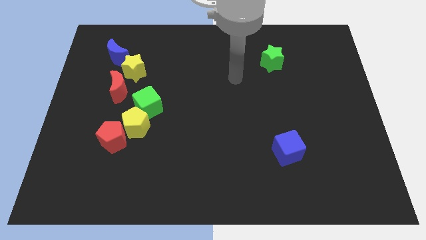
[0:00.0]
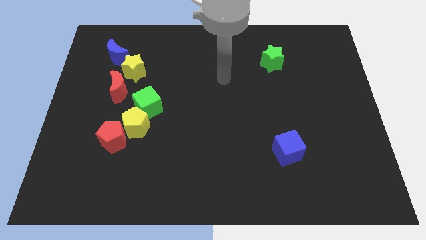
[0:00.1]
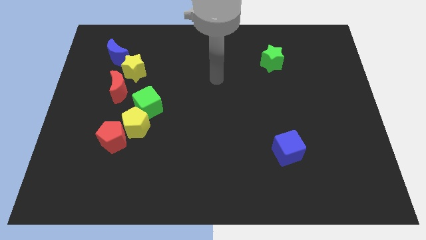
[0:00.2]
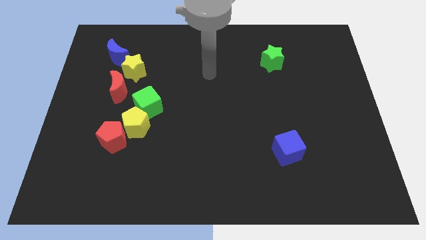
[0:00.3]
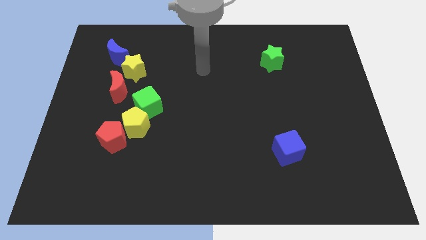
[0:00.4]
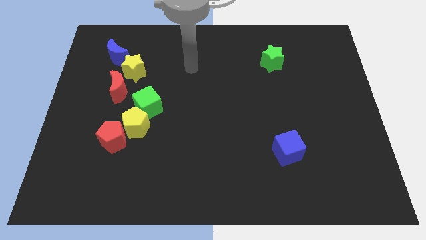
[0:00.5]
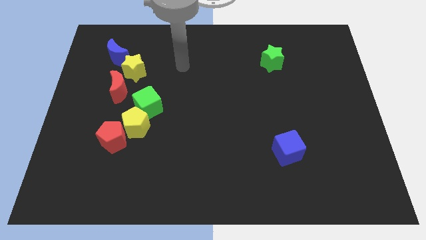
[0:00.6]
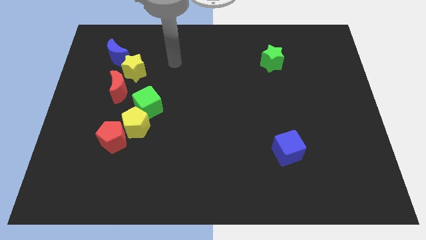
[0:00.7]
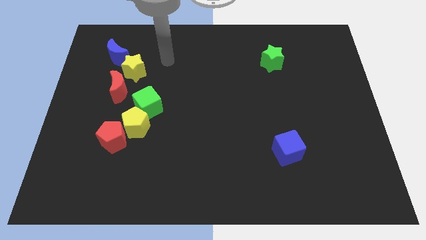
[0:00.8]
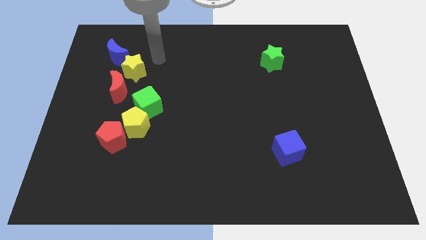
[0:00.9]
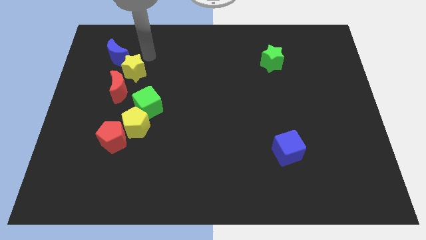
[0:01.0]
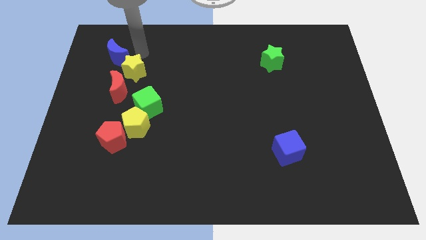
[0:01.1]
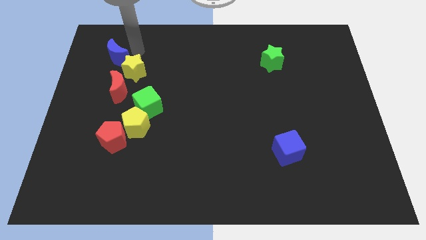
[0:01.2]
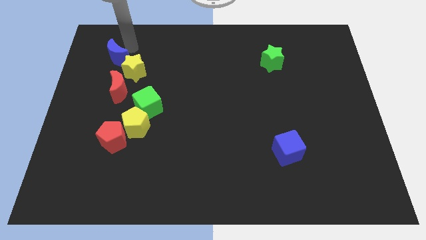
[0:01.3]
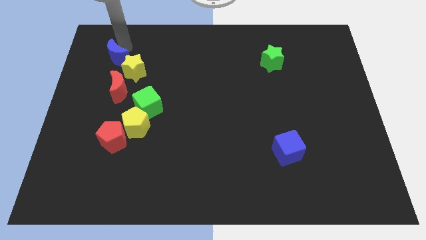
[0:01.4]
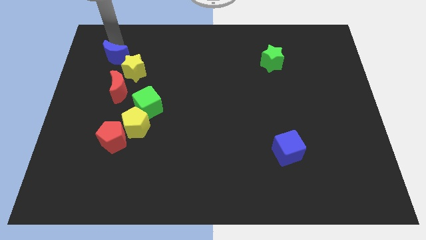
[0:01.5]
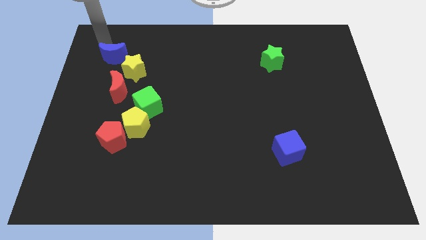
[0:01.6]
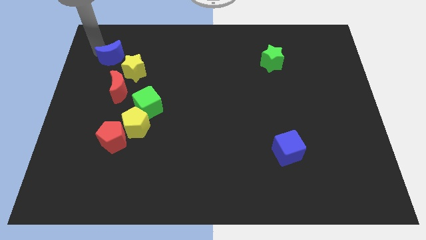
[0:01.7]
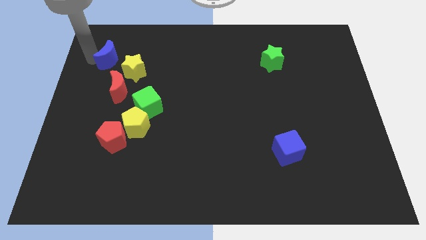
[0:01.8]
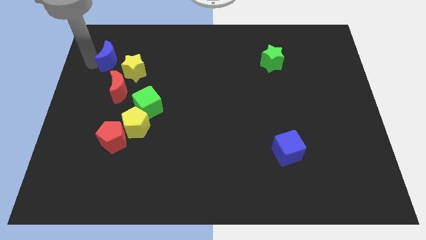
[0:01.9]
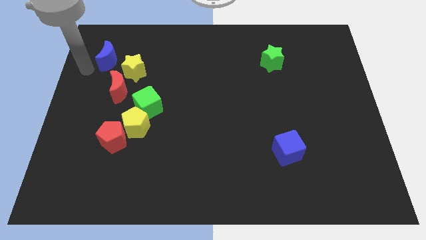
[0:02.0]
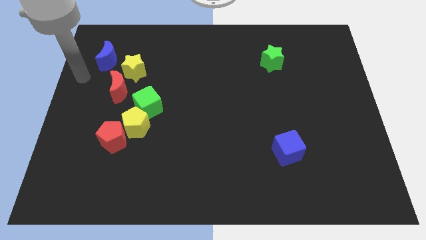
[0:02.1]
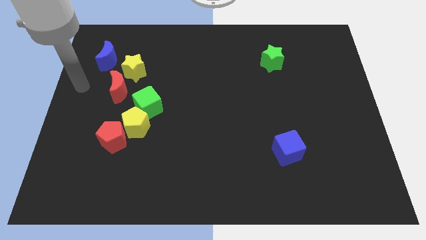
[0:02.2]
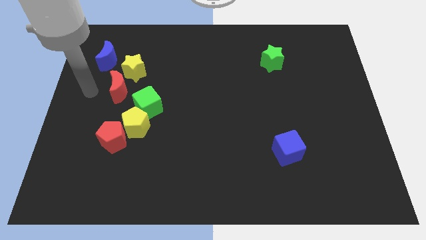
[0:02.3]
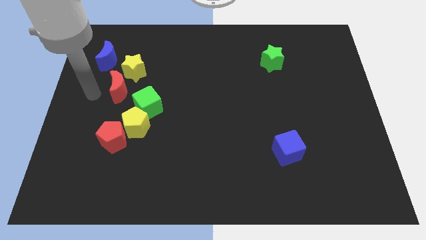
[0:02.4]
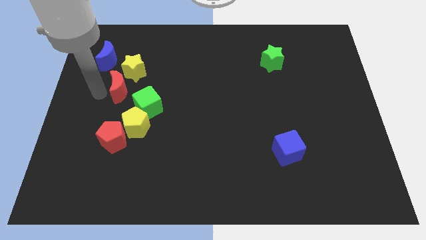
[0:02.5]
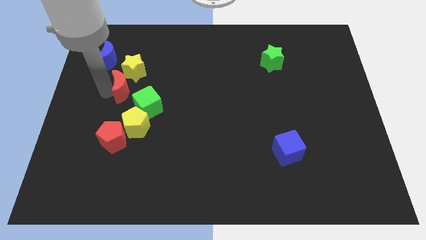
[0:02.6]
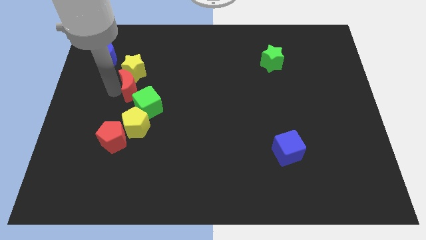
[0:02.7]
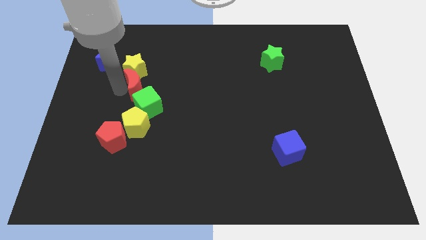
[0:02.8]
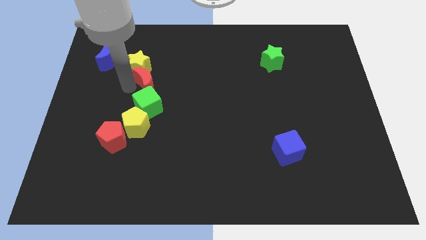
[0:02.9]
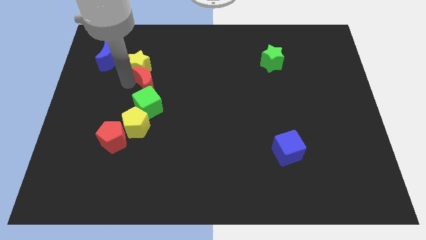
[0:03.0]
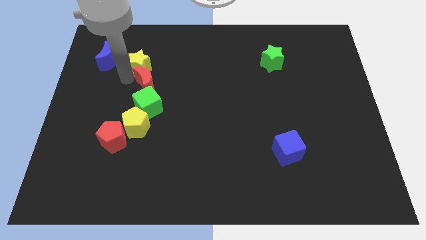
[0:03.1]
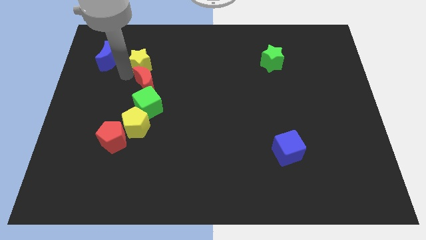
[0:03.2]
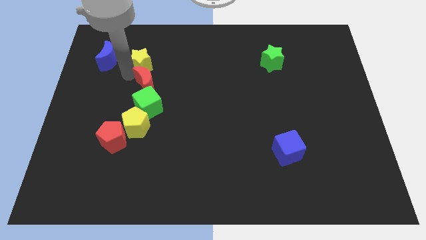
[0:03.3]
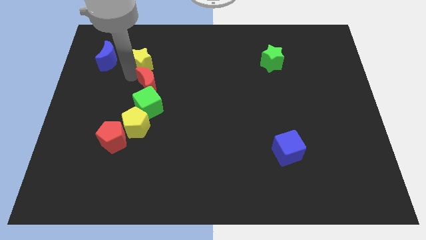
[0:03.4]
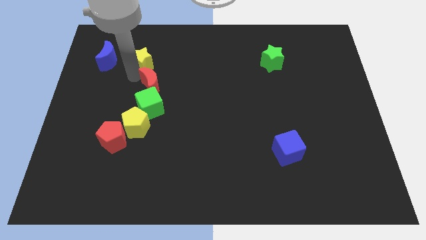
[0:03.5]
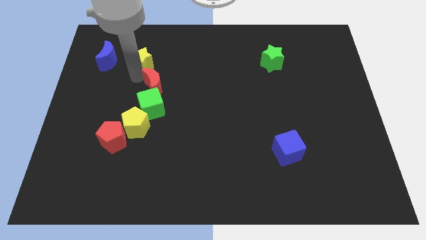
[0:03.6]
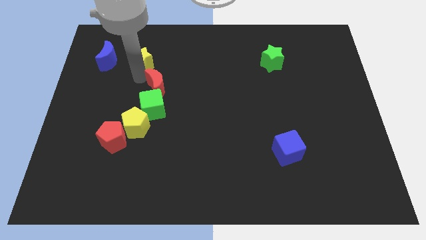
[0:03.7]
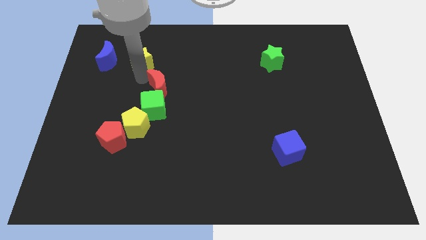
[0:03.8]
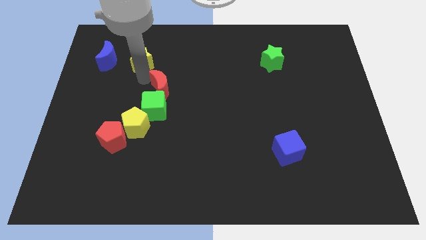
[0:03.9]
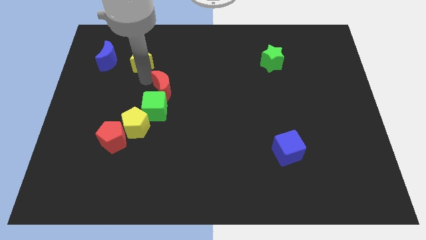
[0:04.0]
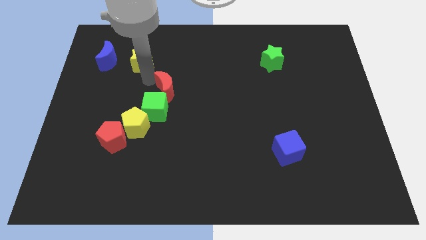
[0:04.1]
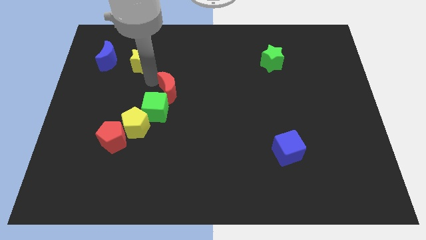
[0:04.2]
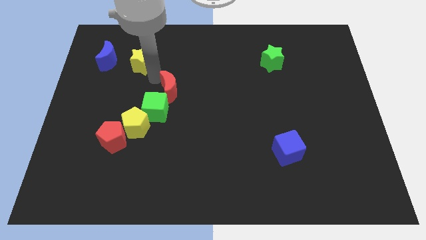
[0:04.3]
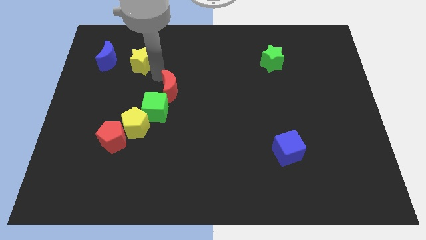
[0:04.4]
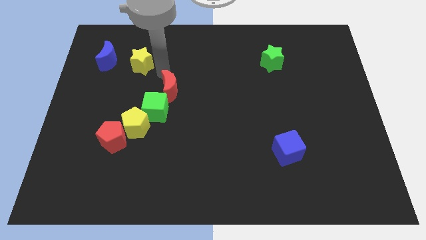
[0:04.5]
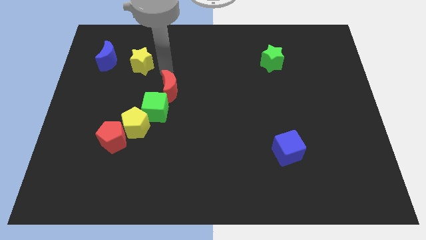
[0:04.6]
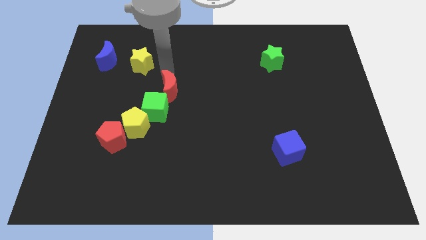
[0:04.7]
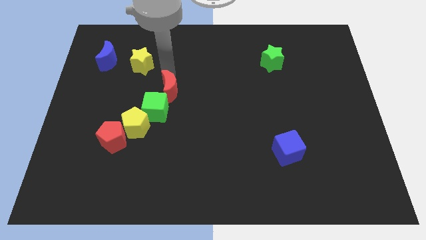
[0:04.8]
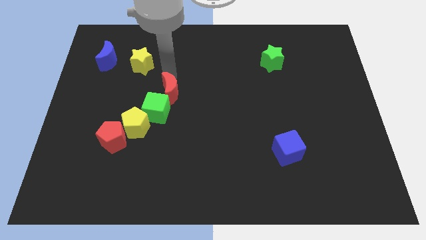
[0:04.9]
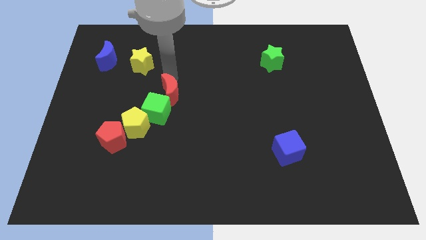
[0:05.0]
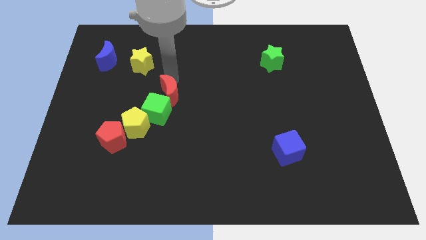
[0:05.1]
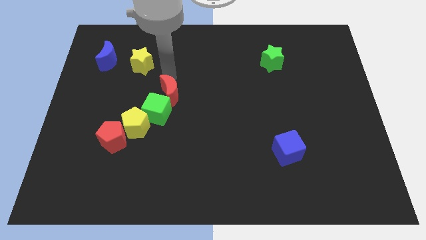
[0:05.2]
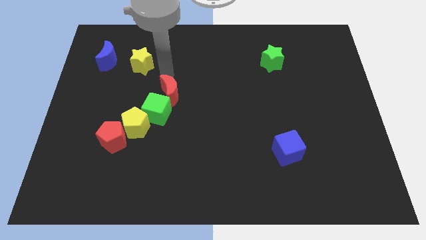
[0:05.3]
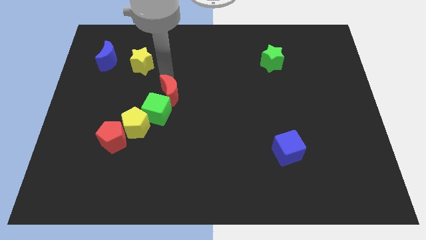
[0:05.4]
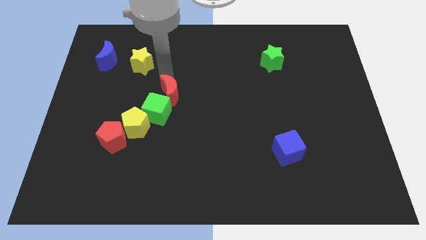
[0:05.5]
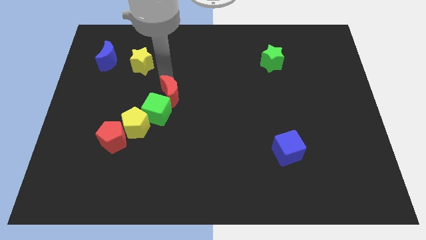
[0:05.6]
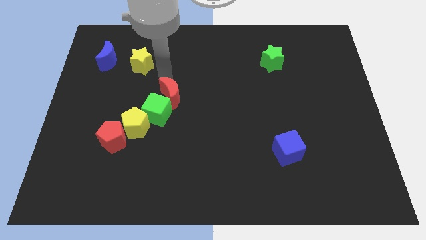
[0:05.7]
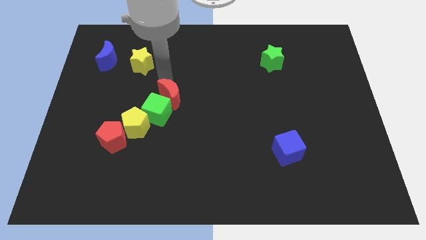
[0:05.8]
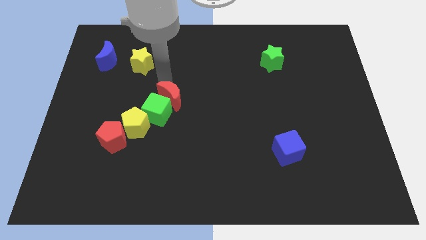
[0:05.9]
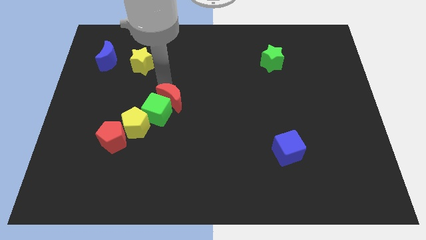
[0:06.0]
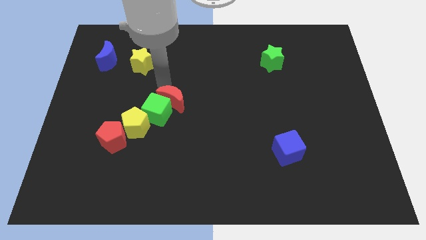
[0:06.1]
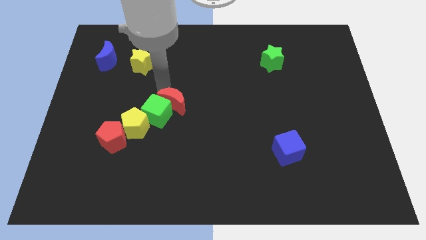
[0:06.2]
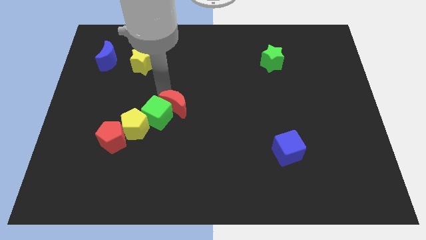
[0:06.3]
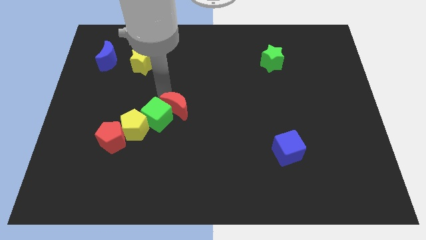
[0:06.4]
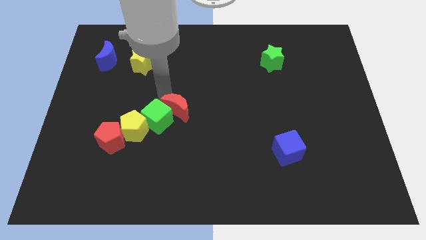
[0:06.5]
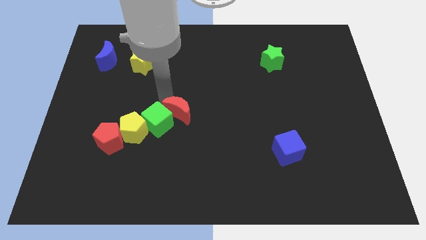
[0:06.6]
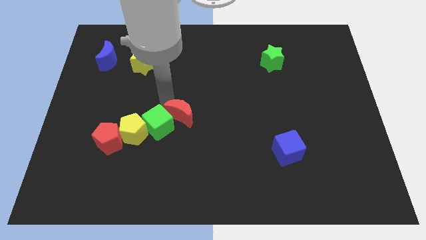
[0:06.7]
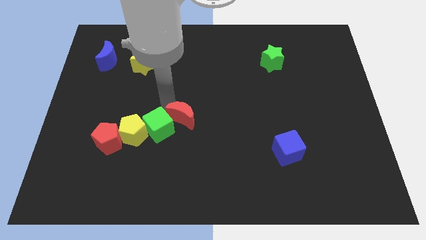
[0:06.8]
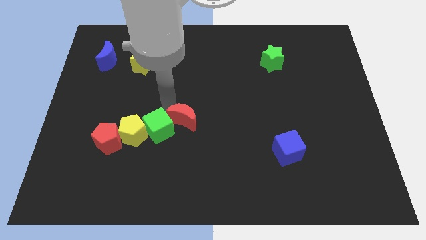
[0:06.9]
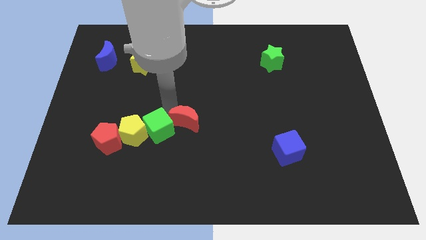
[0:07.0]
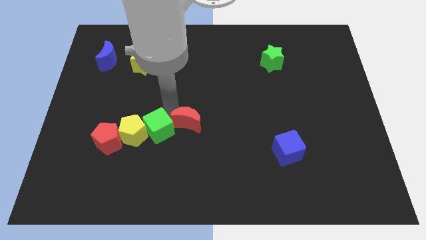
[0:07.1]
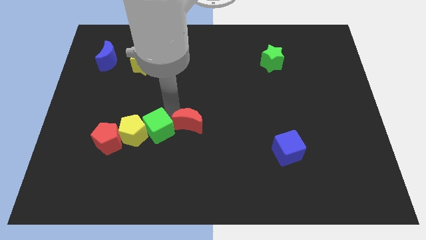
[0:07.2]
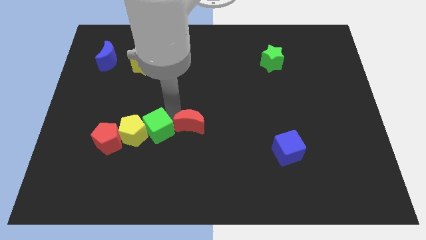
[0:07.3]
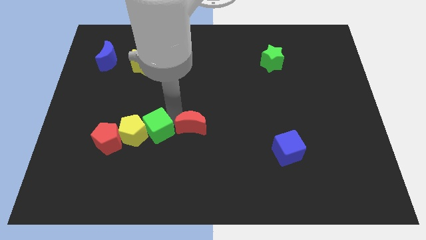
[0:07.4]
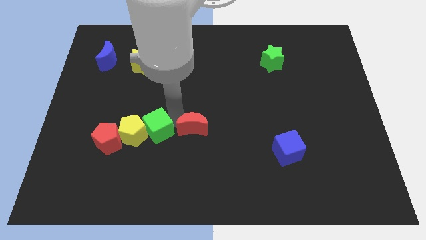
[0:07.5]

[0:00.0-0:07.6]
slide the red moon downwards and to the right

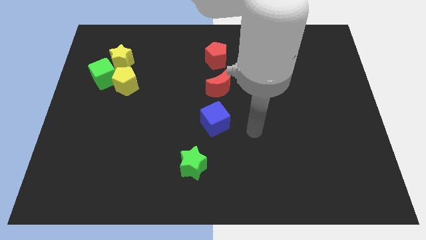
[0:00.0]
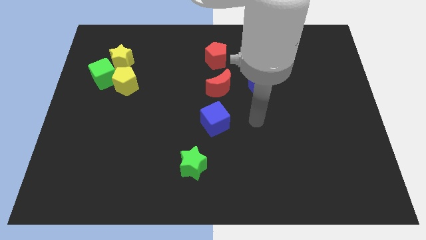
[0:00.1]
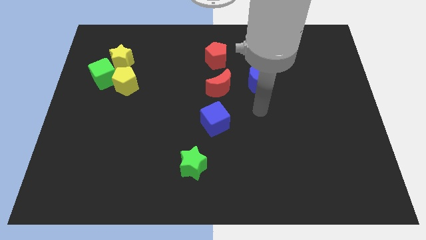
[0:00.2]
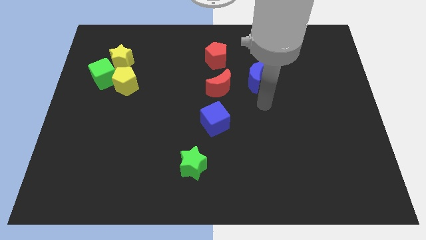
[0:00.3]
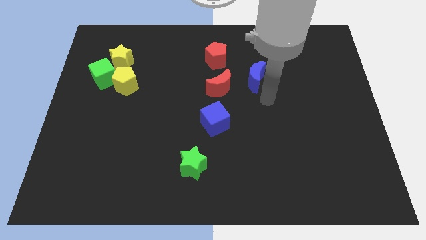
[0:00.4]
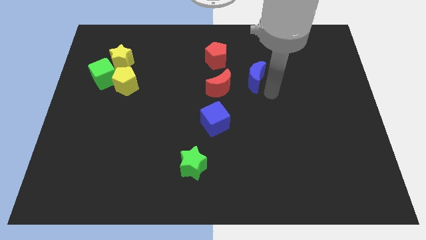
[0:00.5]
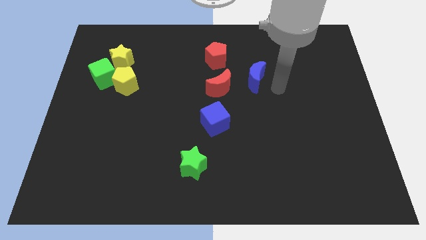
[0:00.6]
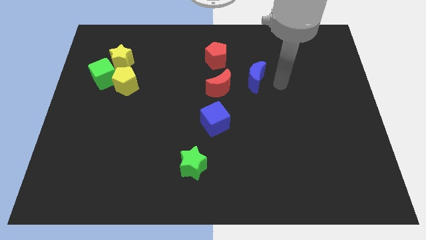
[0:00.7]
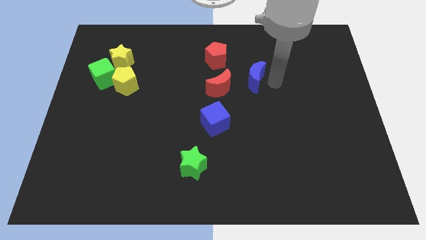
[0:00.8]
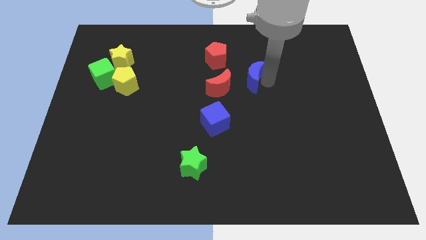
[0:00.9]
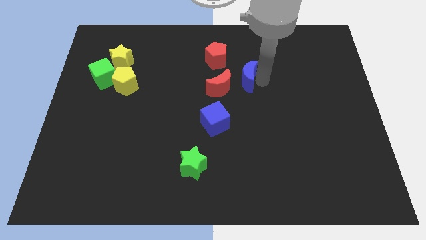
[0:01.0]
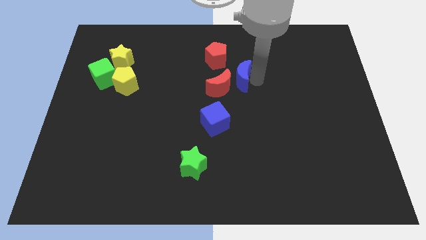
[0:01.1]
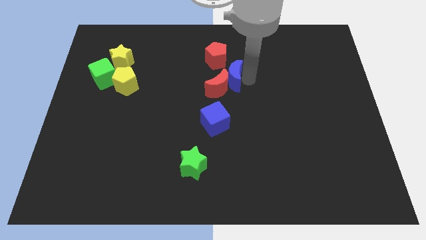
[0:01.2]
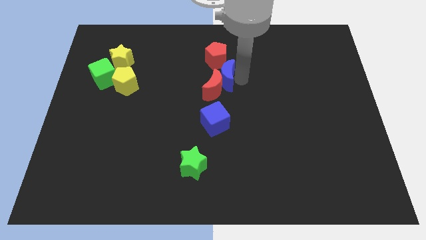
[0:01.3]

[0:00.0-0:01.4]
push the blue moon a bit left
